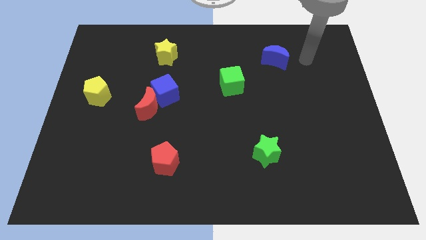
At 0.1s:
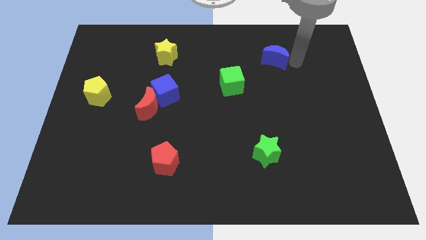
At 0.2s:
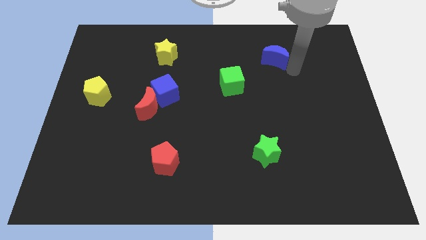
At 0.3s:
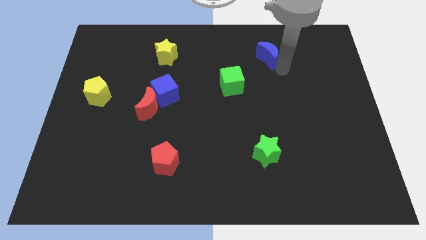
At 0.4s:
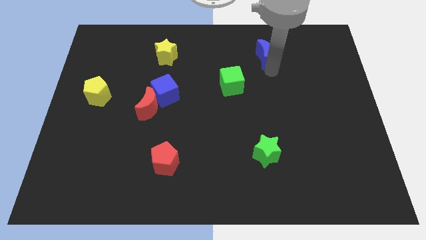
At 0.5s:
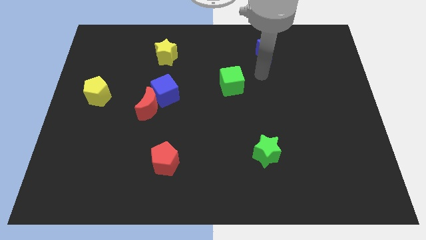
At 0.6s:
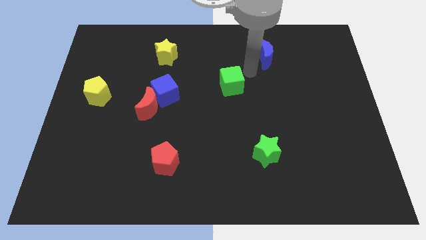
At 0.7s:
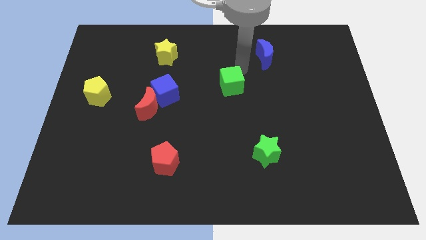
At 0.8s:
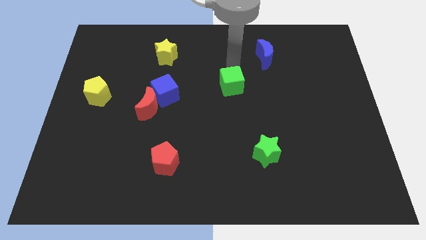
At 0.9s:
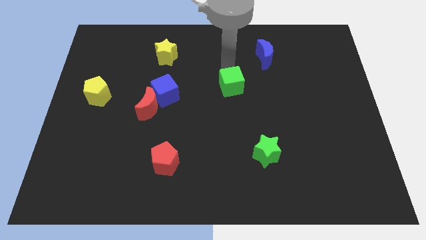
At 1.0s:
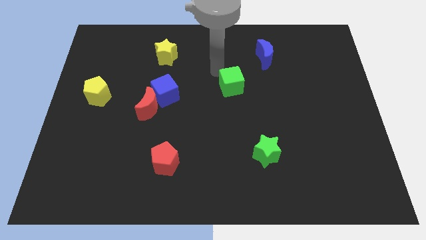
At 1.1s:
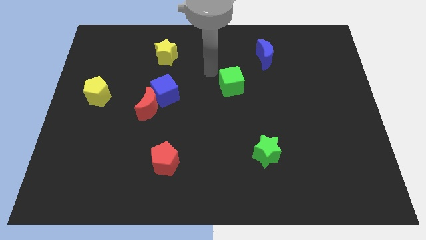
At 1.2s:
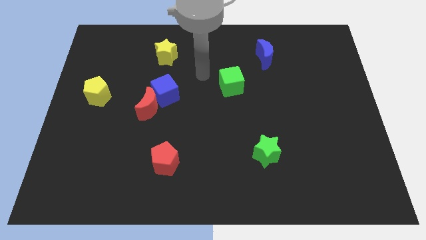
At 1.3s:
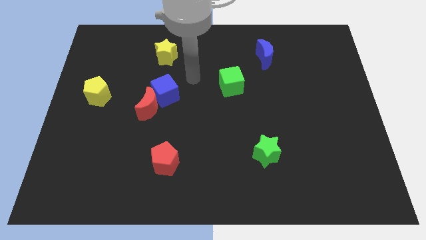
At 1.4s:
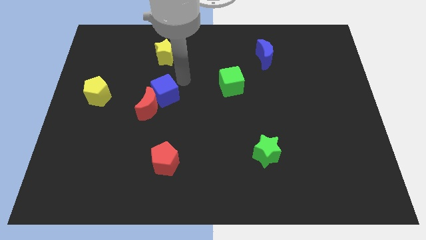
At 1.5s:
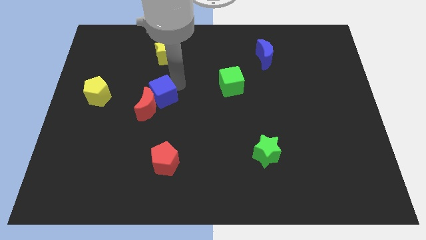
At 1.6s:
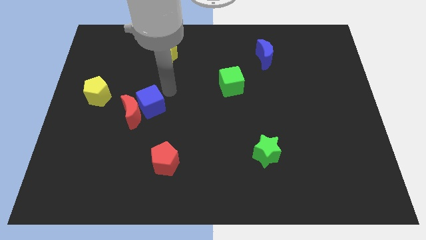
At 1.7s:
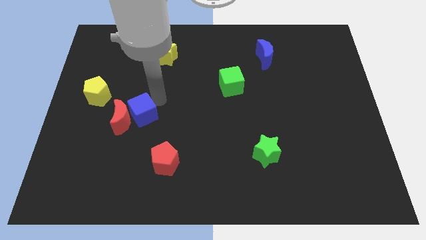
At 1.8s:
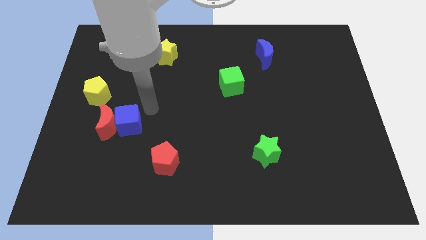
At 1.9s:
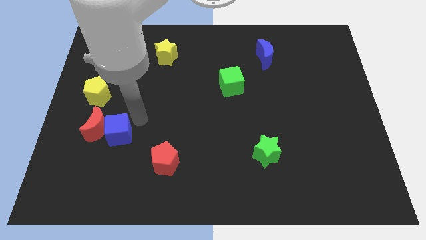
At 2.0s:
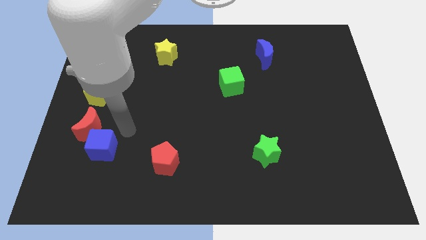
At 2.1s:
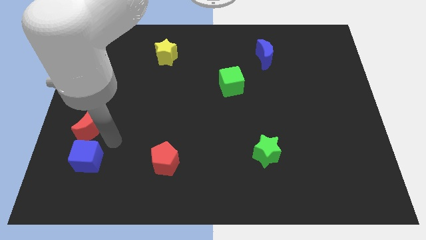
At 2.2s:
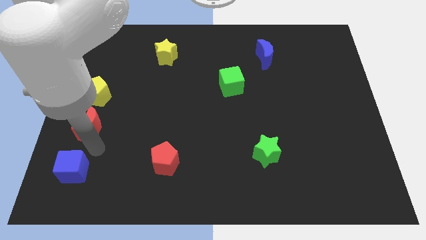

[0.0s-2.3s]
pull the red moon apart from the blue cube

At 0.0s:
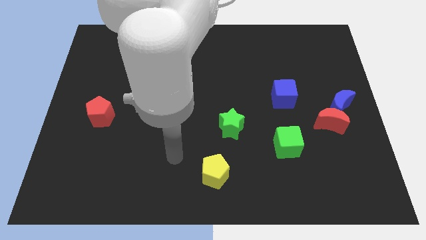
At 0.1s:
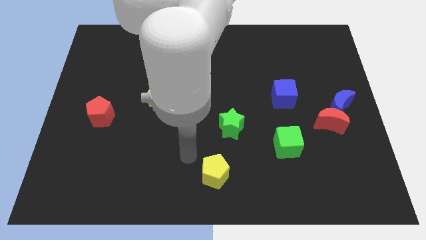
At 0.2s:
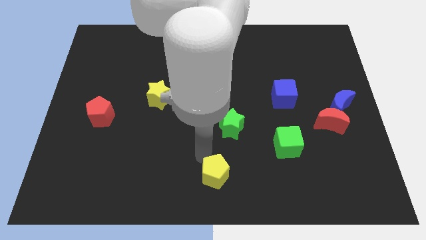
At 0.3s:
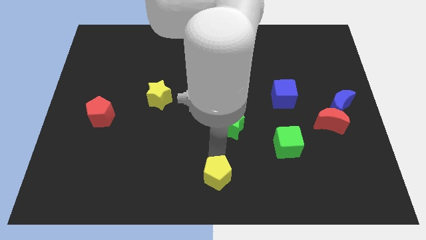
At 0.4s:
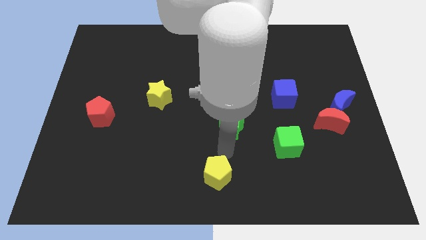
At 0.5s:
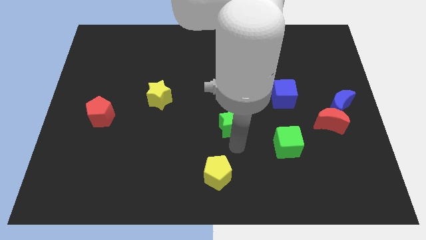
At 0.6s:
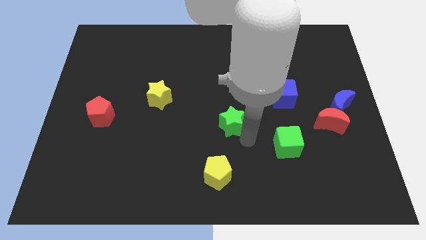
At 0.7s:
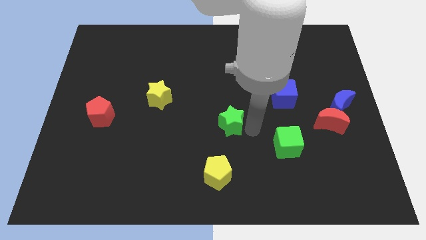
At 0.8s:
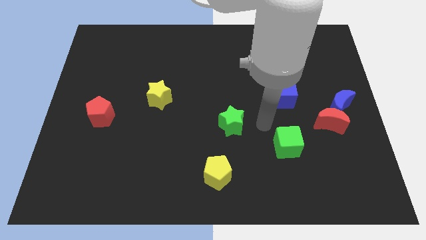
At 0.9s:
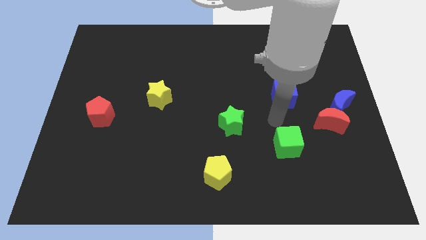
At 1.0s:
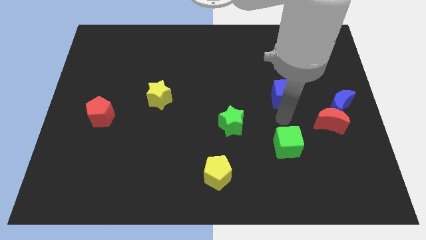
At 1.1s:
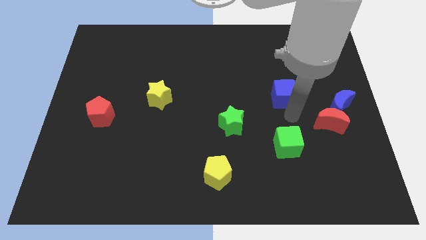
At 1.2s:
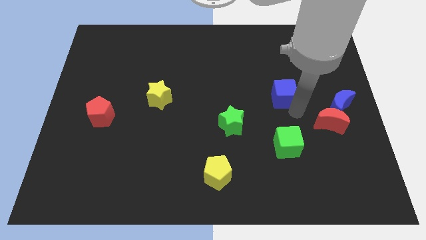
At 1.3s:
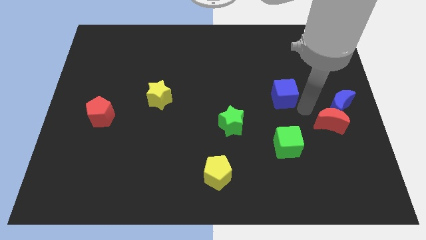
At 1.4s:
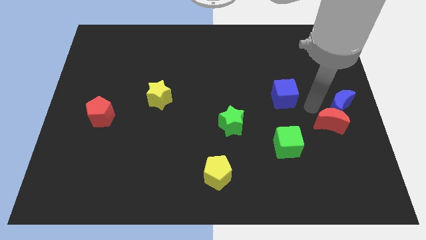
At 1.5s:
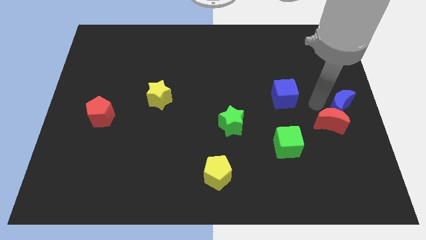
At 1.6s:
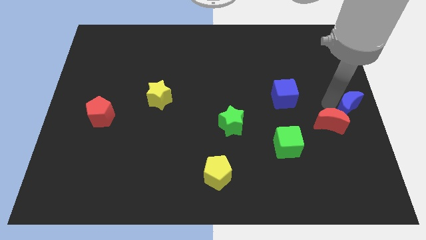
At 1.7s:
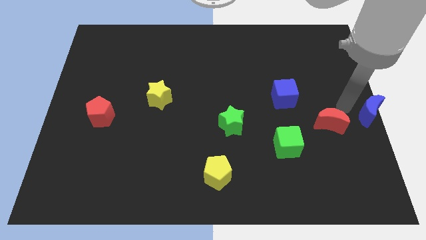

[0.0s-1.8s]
pull the red moon apart from the blue moon

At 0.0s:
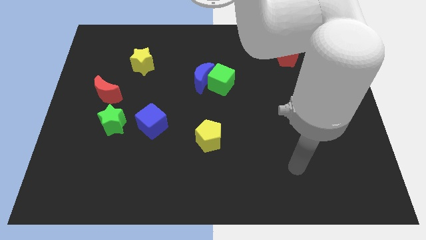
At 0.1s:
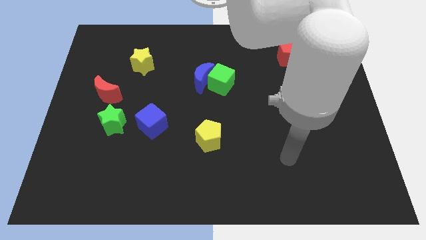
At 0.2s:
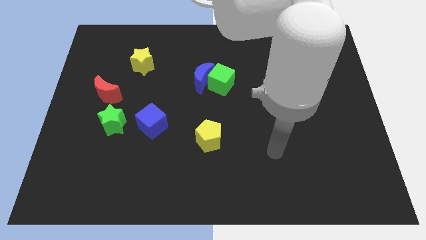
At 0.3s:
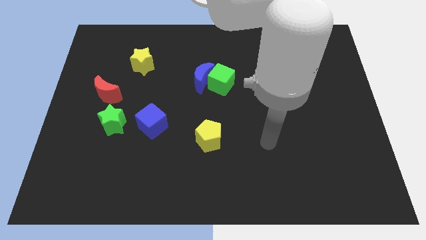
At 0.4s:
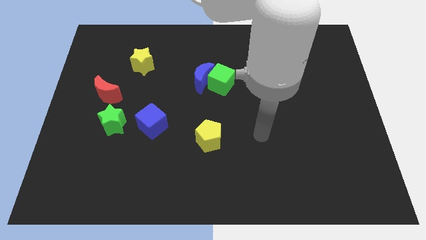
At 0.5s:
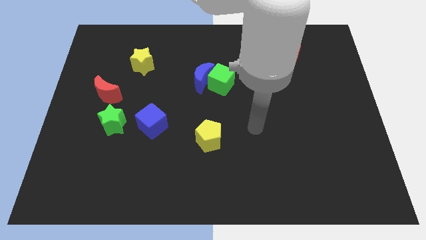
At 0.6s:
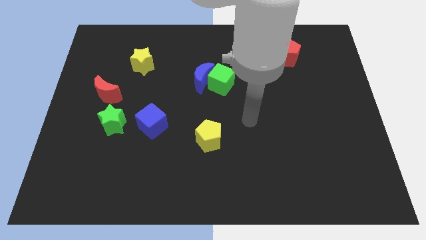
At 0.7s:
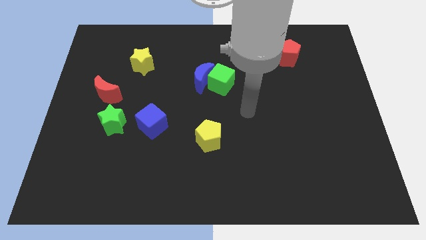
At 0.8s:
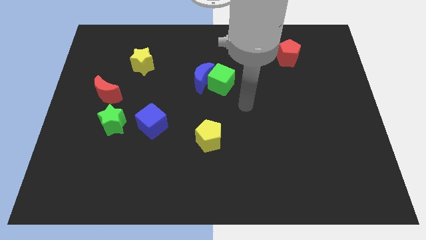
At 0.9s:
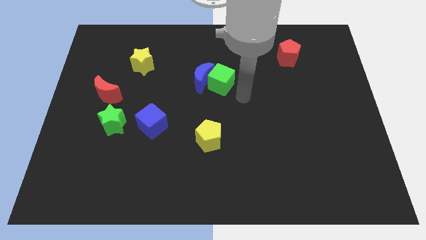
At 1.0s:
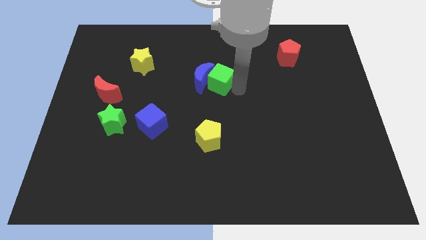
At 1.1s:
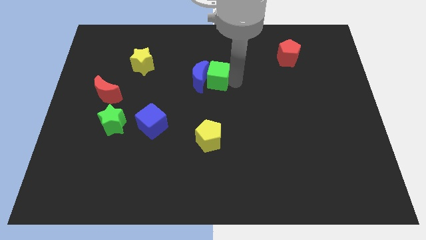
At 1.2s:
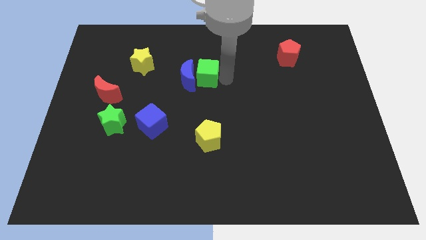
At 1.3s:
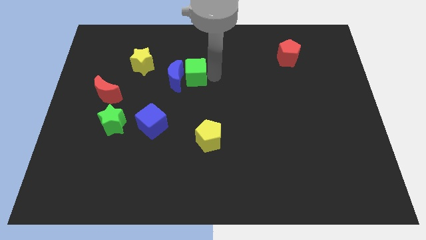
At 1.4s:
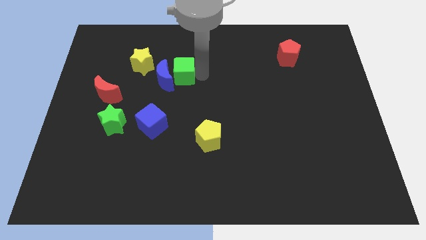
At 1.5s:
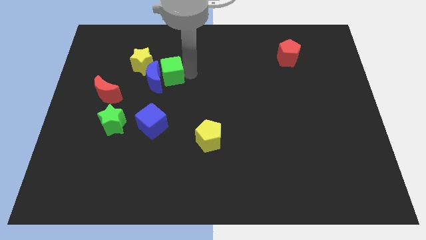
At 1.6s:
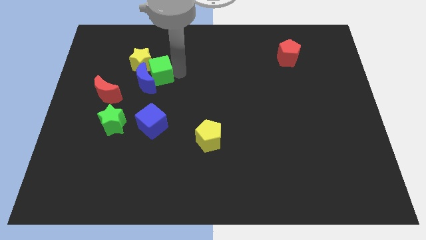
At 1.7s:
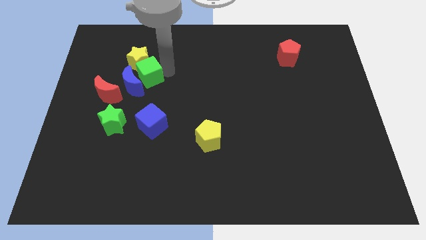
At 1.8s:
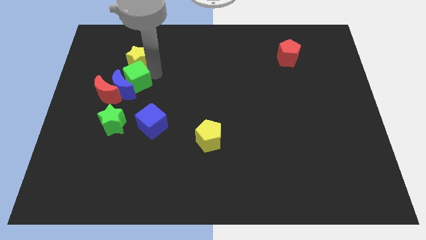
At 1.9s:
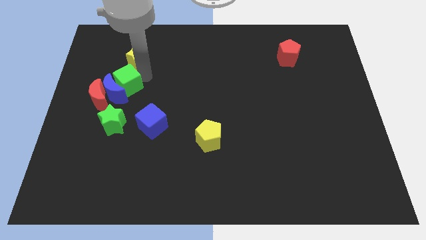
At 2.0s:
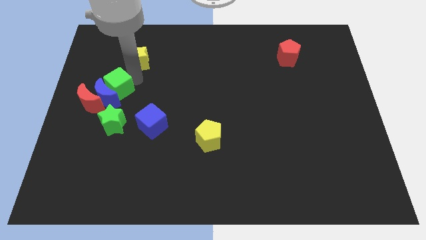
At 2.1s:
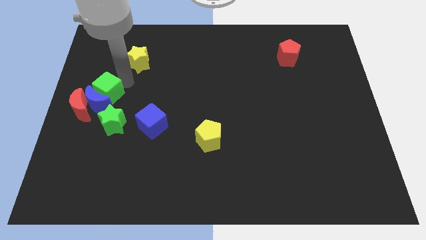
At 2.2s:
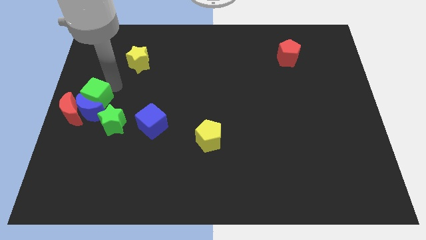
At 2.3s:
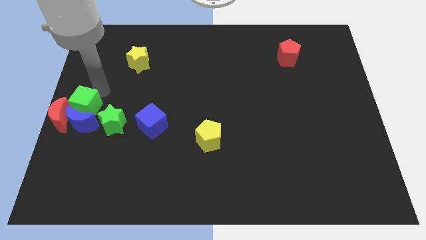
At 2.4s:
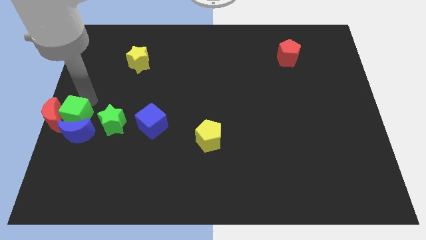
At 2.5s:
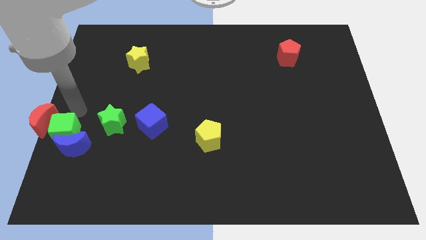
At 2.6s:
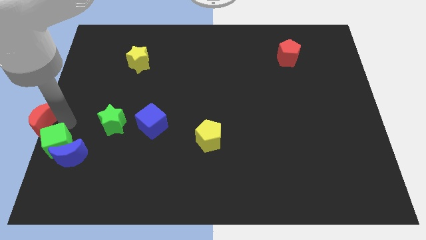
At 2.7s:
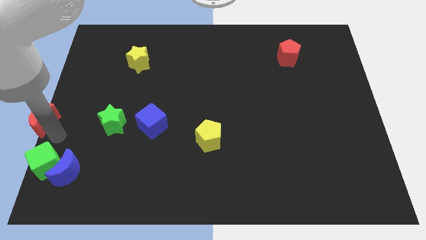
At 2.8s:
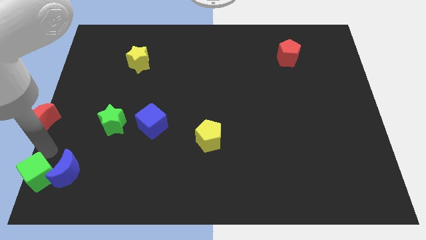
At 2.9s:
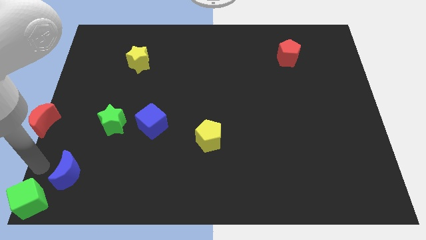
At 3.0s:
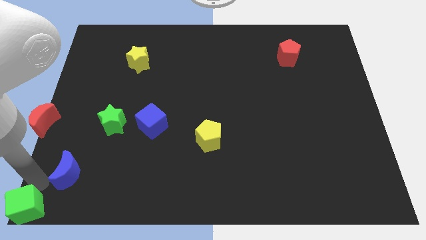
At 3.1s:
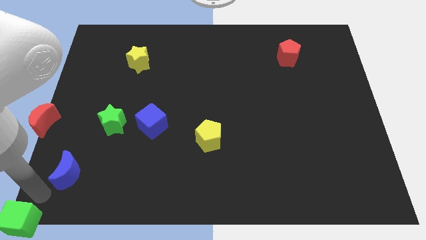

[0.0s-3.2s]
pull the blue moon apart from the green cube

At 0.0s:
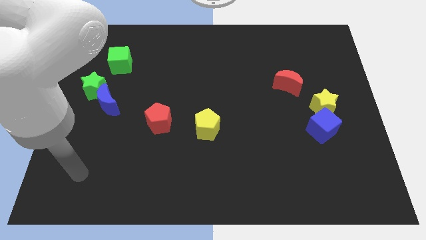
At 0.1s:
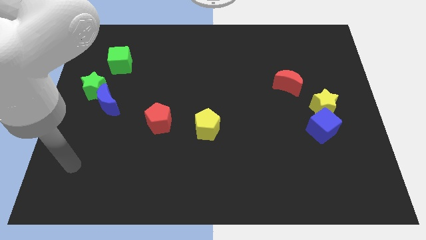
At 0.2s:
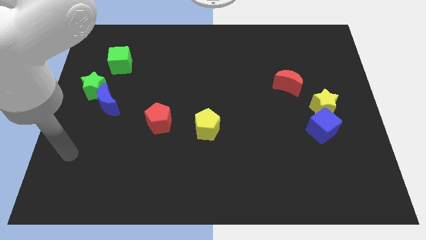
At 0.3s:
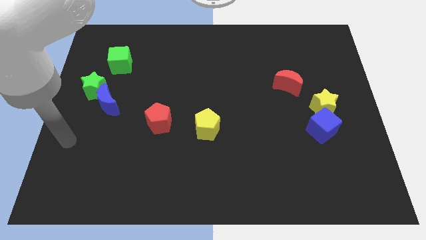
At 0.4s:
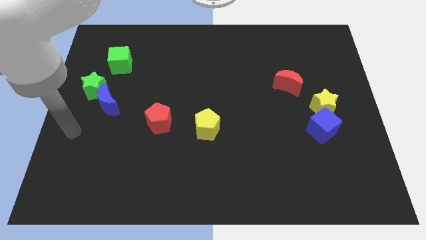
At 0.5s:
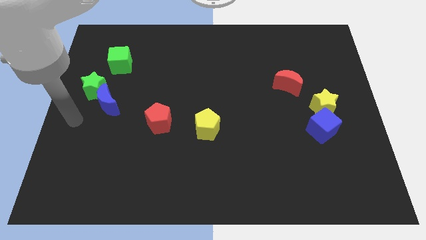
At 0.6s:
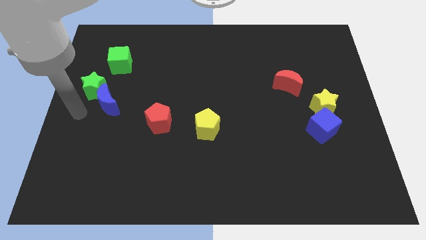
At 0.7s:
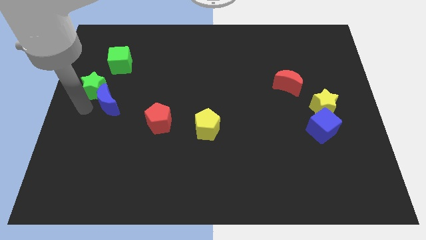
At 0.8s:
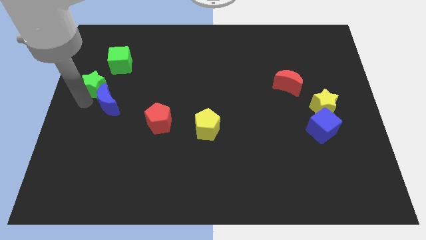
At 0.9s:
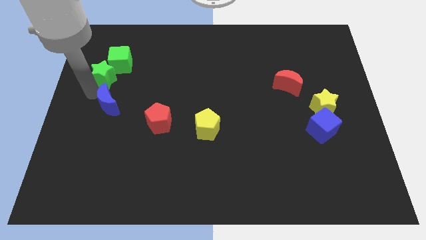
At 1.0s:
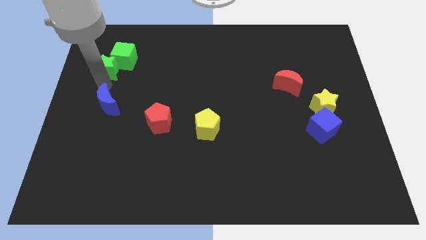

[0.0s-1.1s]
pull the blue moon apart from the green star

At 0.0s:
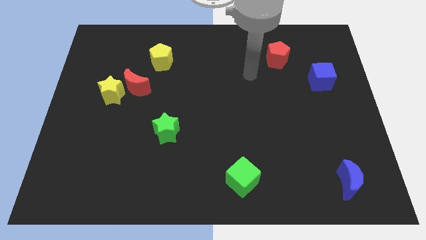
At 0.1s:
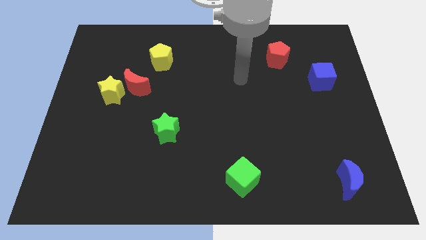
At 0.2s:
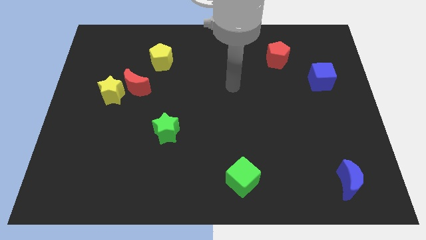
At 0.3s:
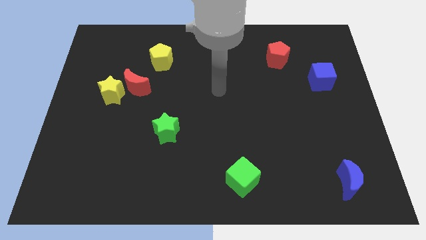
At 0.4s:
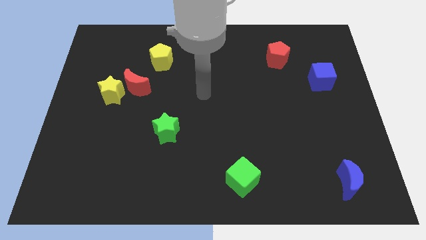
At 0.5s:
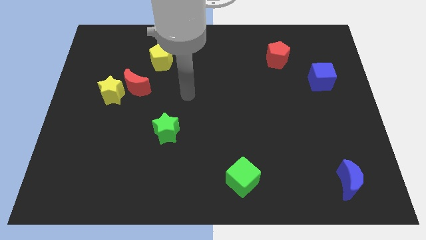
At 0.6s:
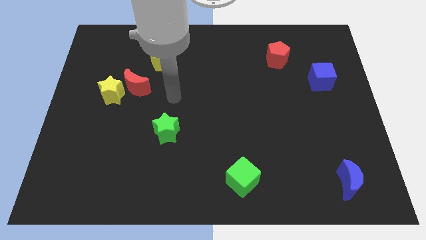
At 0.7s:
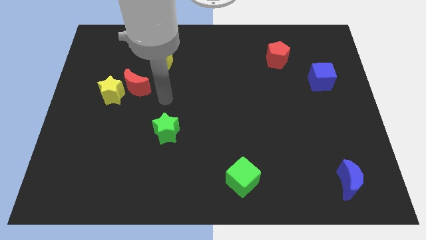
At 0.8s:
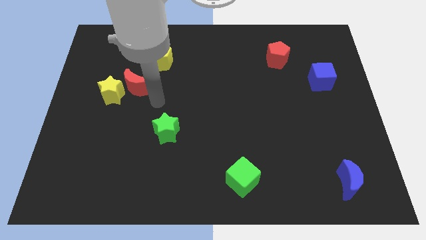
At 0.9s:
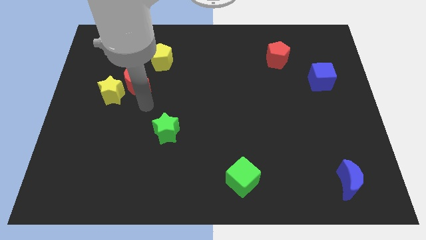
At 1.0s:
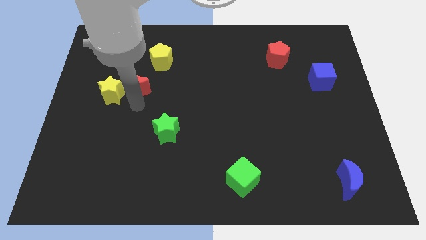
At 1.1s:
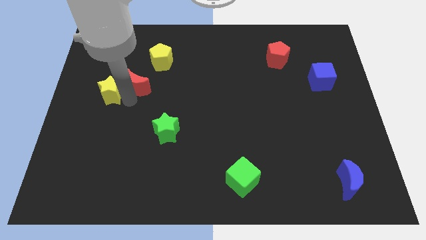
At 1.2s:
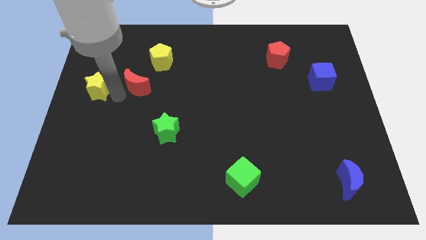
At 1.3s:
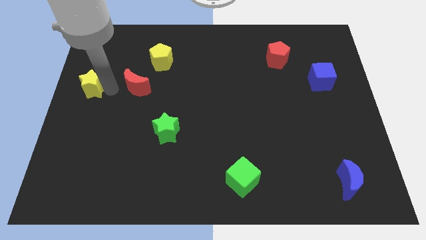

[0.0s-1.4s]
pull the red moon apart from the yellow star
